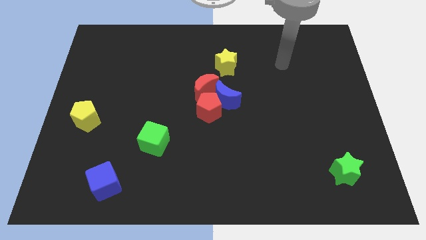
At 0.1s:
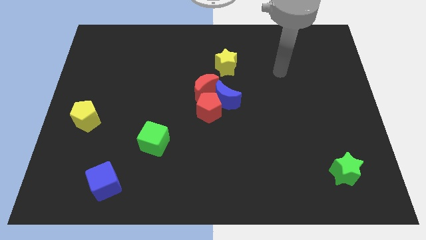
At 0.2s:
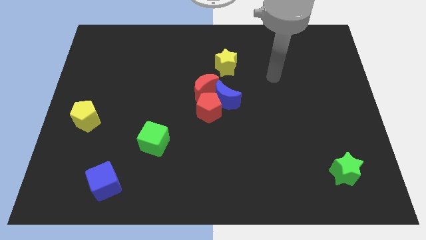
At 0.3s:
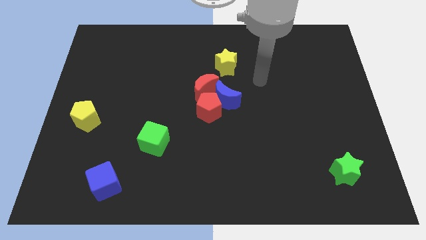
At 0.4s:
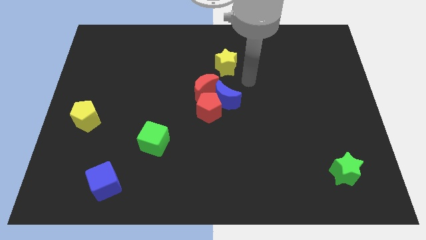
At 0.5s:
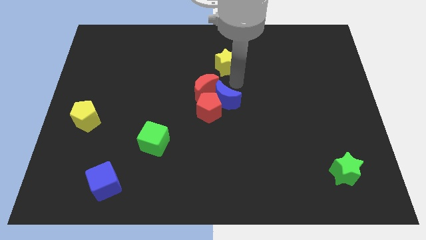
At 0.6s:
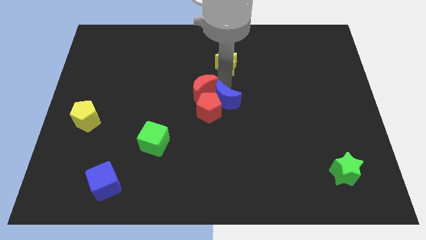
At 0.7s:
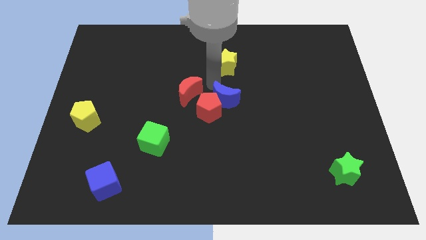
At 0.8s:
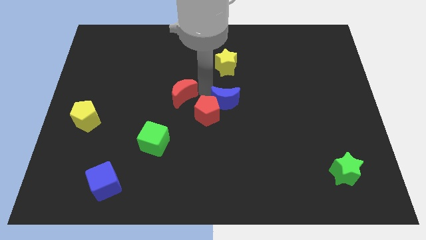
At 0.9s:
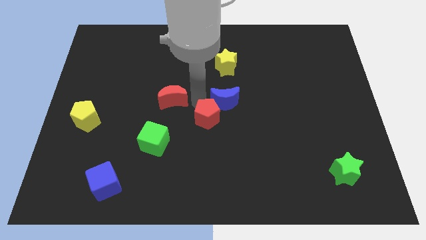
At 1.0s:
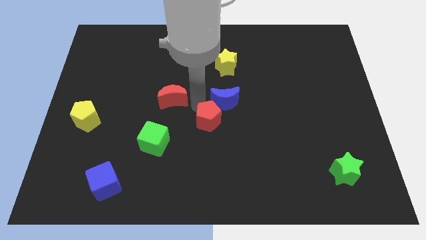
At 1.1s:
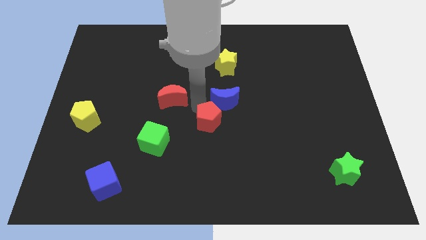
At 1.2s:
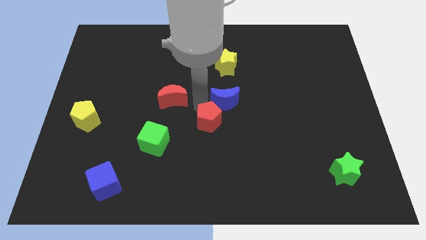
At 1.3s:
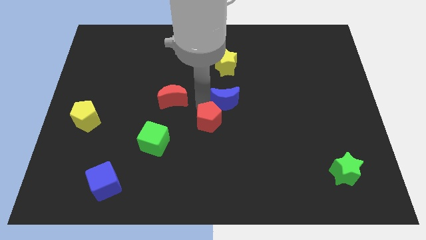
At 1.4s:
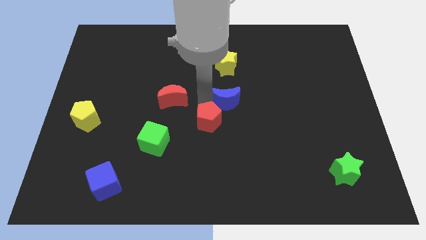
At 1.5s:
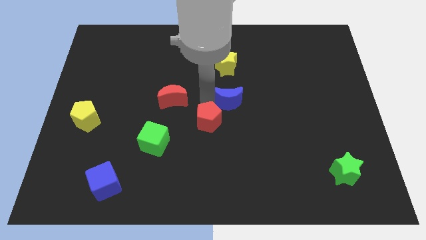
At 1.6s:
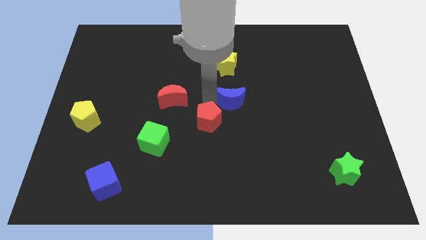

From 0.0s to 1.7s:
separate the blue moon from the red pentagon and red moon

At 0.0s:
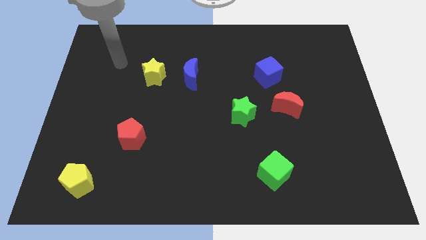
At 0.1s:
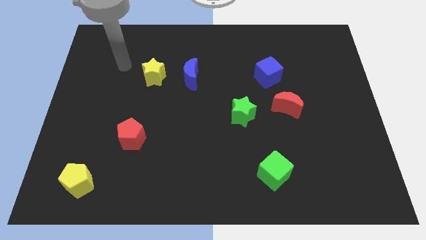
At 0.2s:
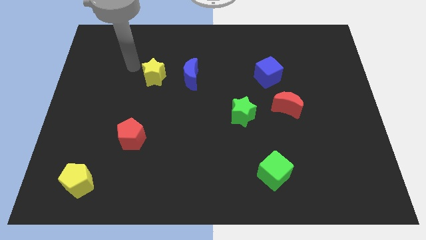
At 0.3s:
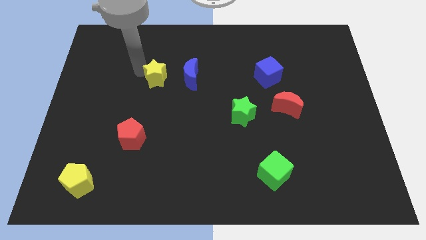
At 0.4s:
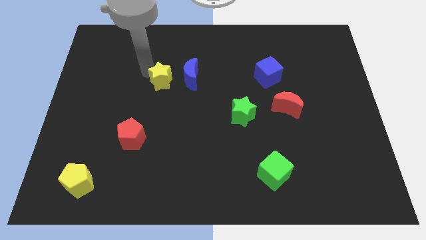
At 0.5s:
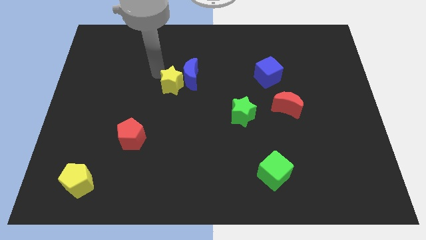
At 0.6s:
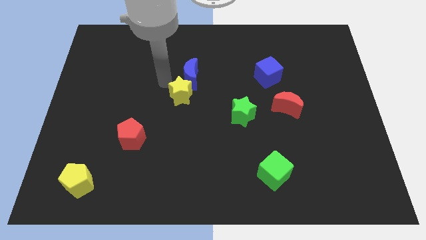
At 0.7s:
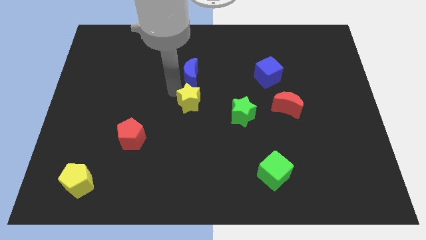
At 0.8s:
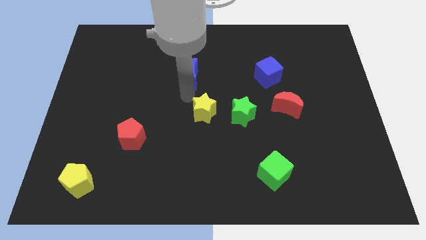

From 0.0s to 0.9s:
separate the blue moon from the yellow star

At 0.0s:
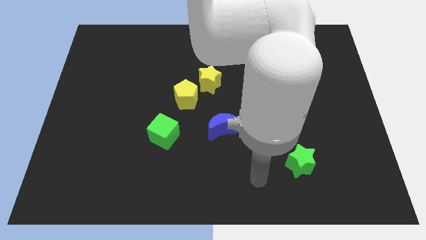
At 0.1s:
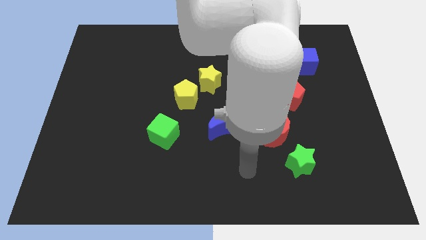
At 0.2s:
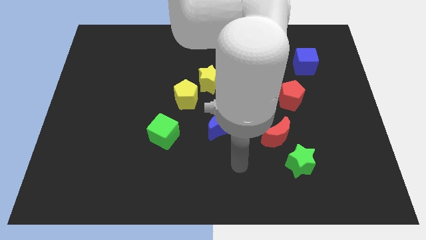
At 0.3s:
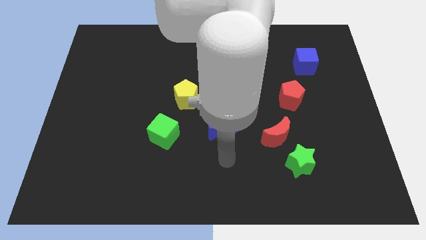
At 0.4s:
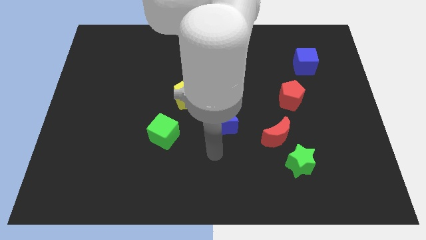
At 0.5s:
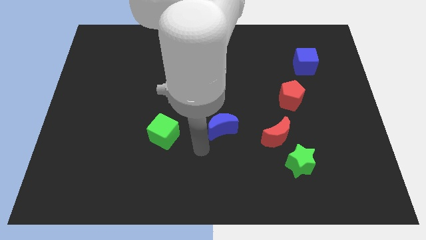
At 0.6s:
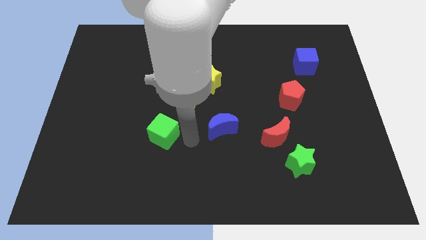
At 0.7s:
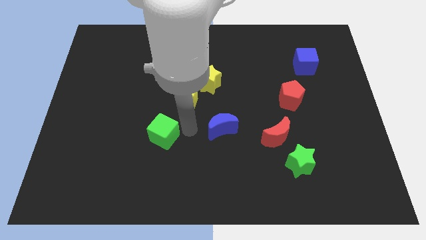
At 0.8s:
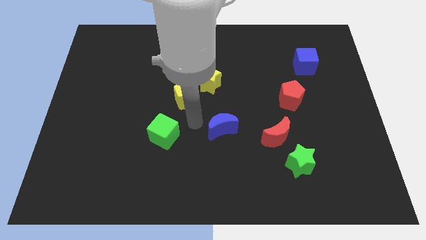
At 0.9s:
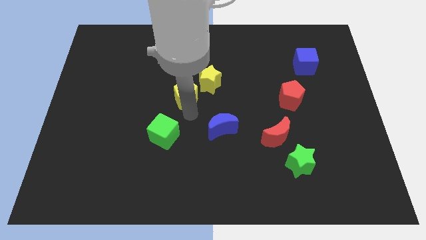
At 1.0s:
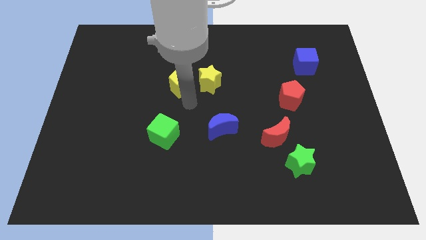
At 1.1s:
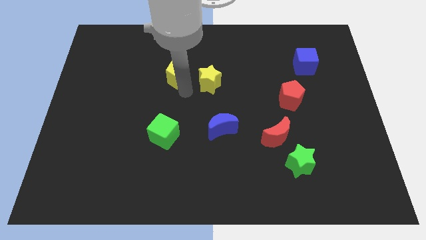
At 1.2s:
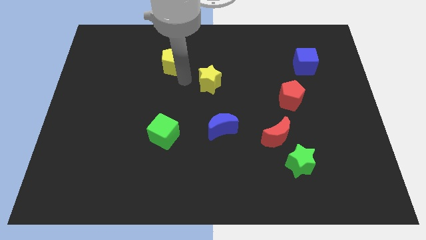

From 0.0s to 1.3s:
pull the yellow star apart from the yellow pentagon

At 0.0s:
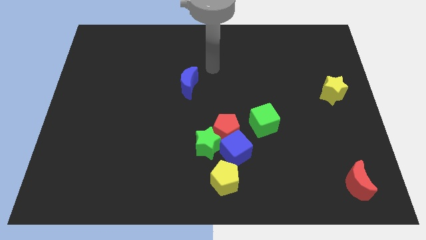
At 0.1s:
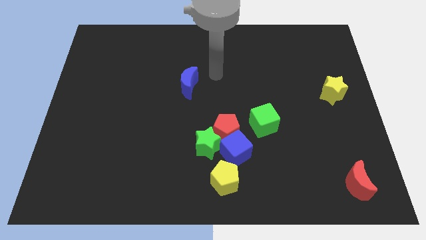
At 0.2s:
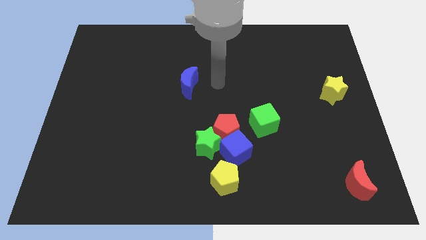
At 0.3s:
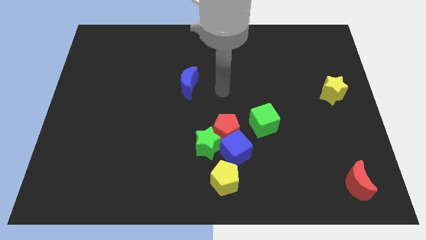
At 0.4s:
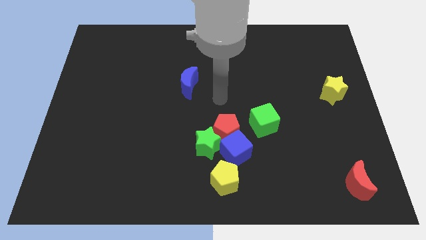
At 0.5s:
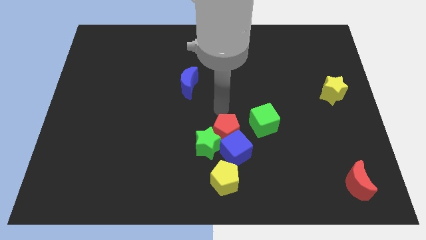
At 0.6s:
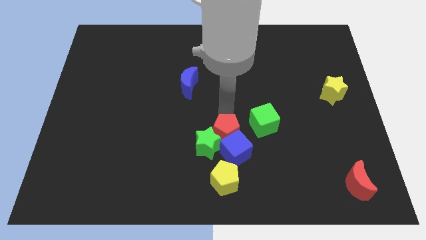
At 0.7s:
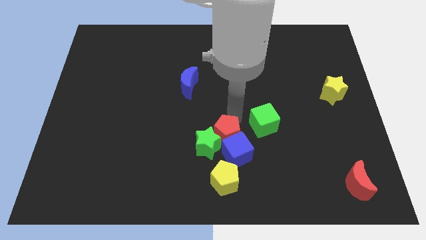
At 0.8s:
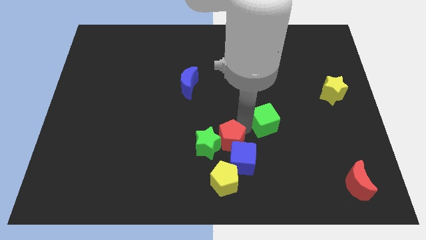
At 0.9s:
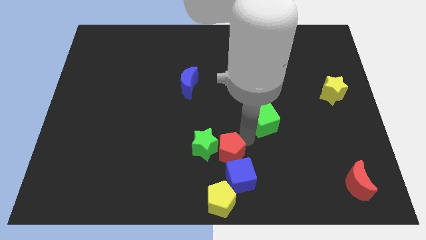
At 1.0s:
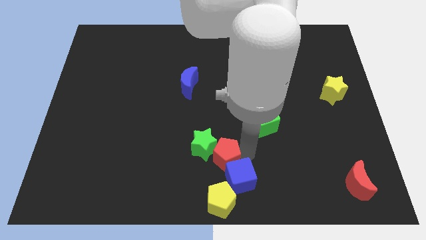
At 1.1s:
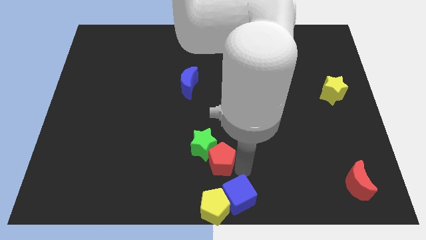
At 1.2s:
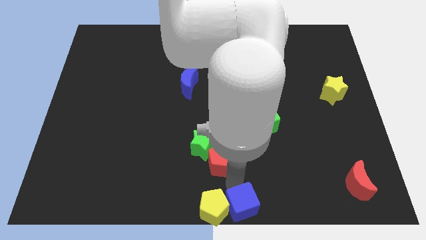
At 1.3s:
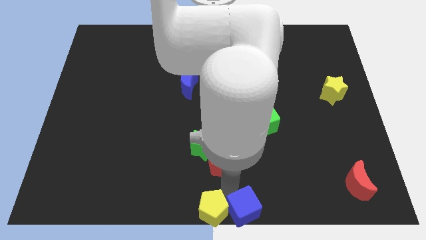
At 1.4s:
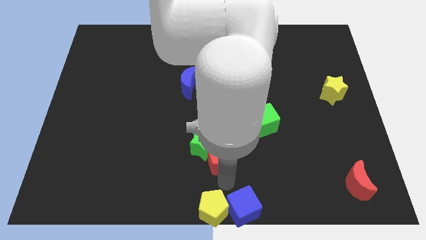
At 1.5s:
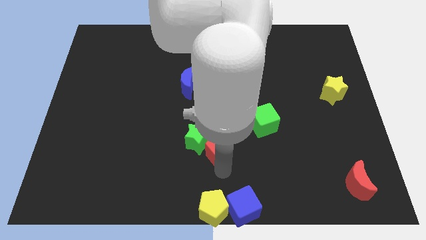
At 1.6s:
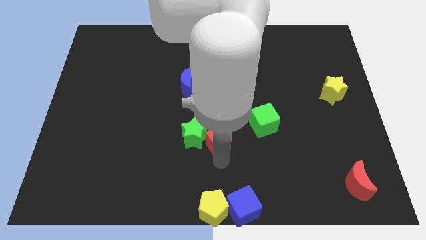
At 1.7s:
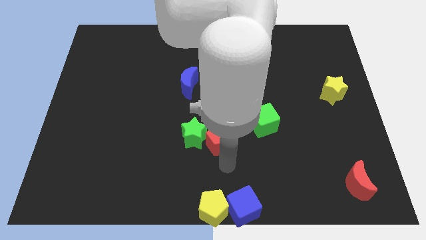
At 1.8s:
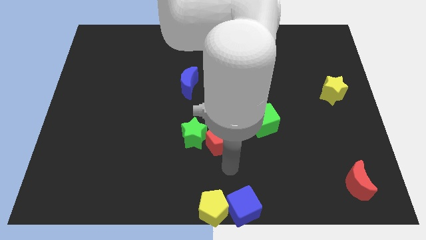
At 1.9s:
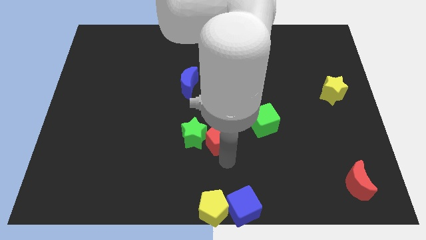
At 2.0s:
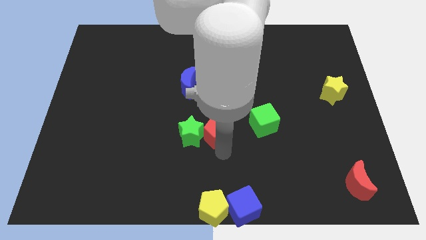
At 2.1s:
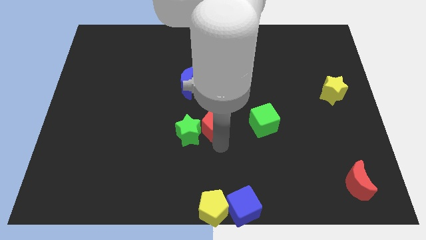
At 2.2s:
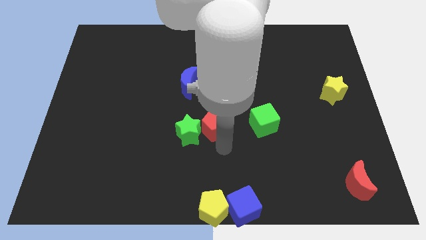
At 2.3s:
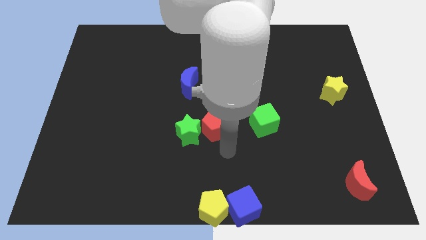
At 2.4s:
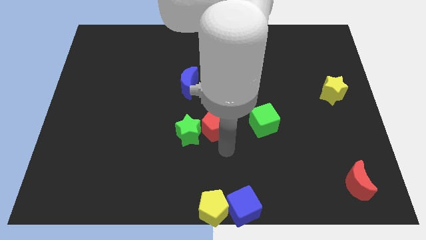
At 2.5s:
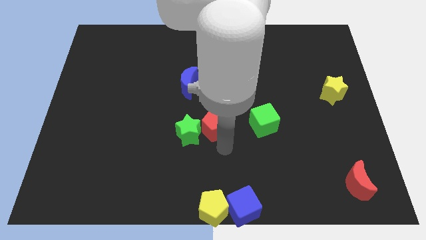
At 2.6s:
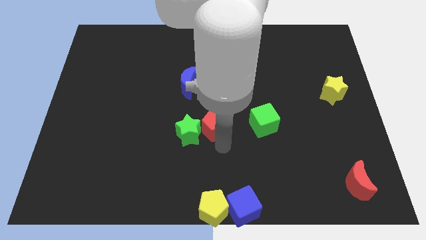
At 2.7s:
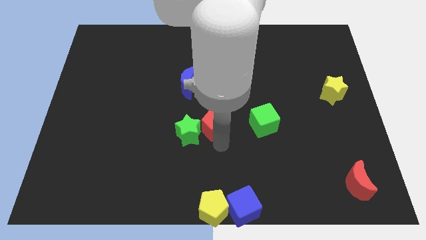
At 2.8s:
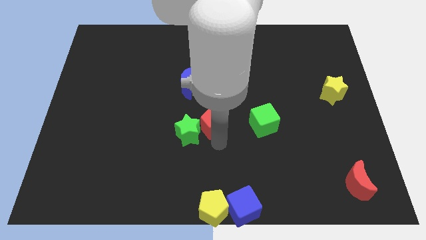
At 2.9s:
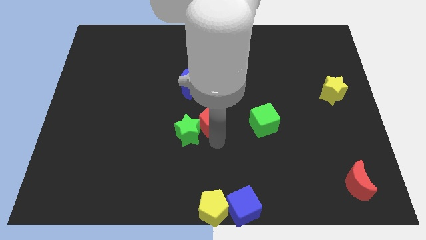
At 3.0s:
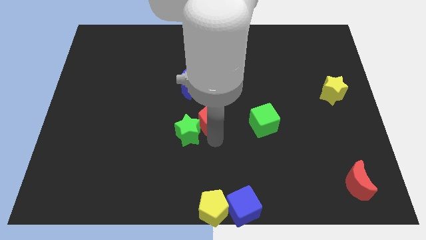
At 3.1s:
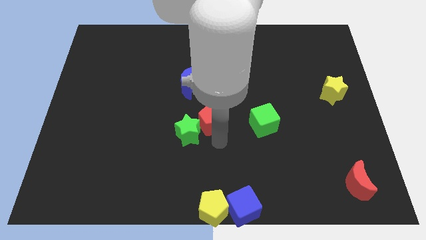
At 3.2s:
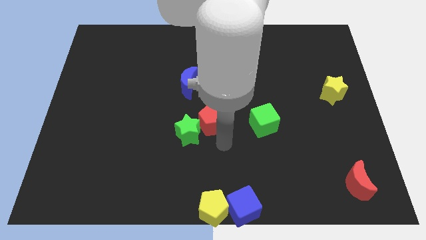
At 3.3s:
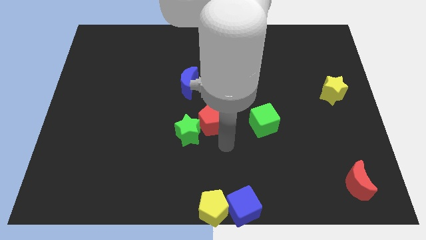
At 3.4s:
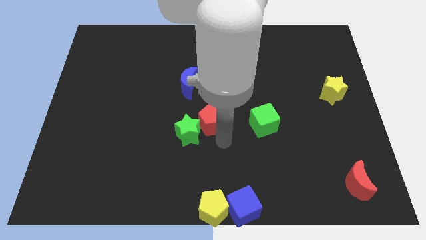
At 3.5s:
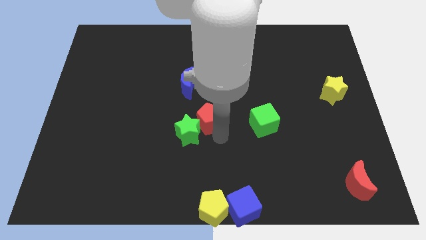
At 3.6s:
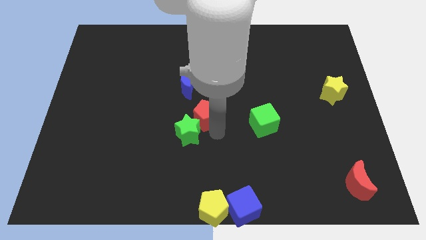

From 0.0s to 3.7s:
pull the red pentagon apart from the blue cube, green star, and green cube

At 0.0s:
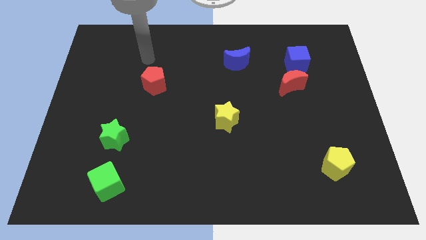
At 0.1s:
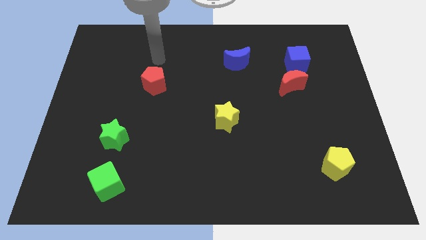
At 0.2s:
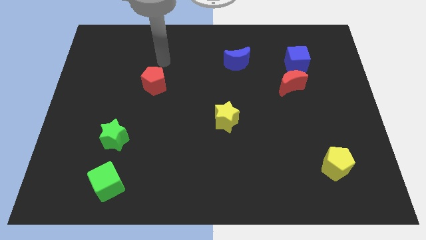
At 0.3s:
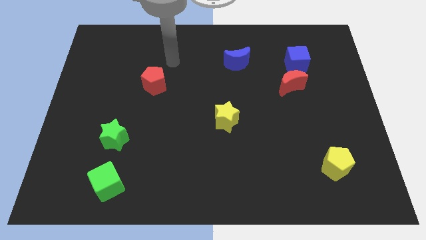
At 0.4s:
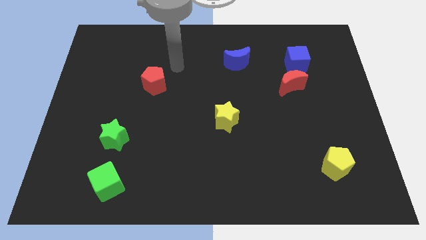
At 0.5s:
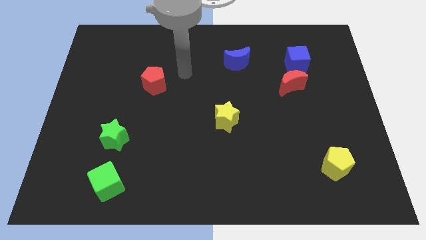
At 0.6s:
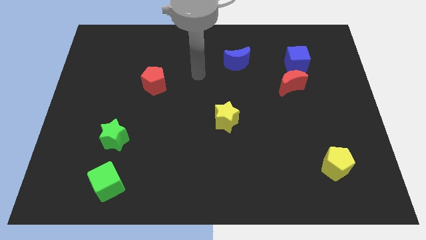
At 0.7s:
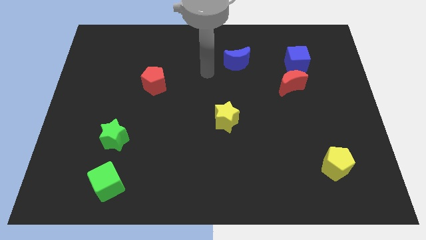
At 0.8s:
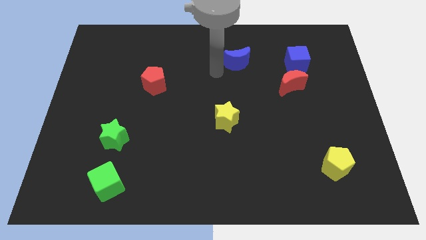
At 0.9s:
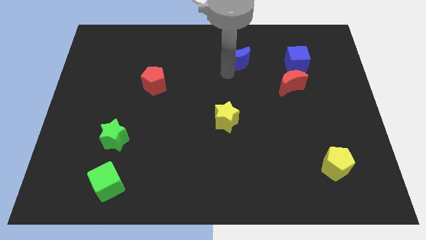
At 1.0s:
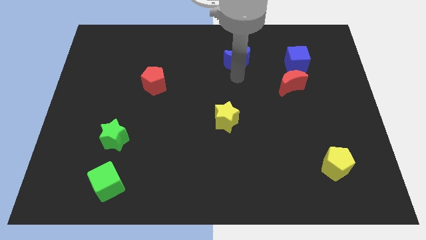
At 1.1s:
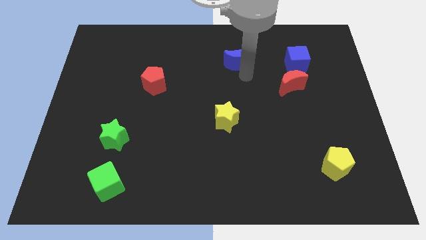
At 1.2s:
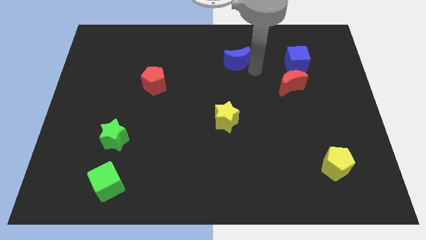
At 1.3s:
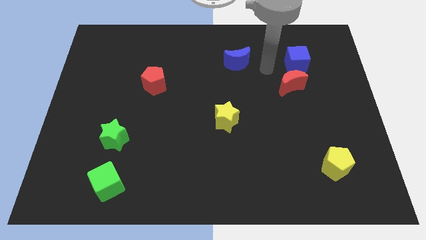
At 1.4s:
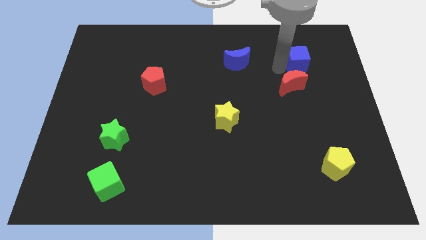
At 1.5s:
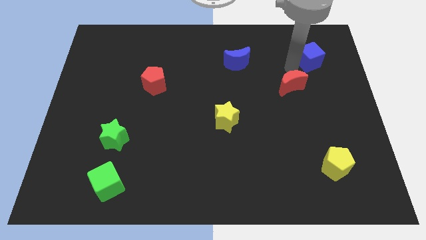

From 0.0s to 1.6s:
separate the red moon from the blue cube

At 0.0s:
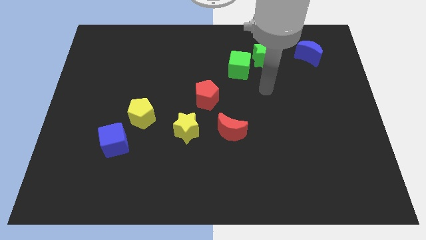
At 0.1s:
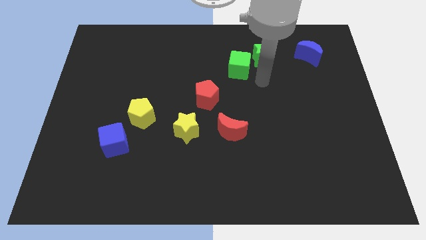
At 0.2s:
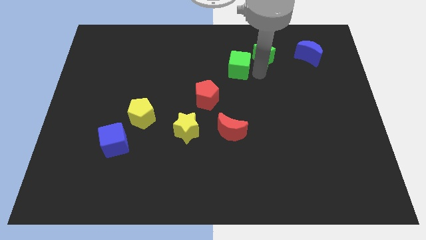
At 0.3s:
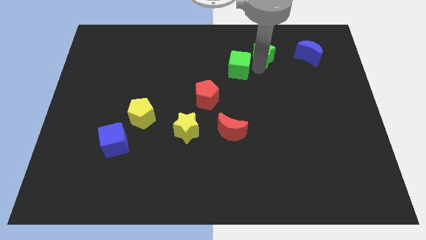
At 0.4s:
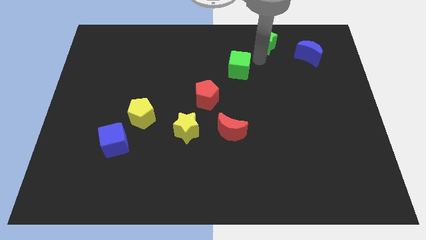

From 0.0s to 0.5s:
move the green cube away from the green star
